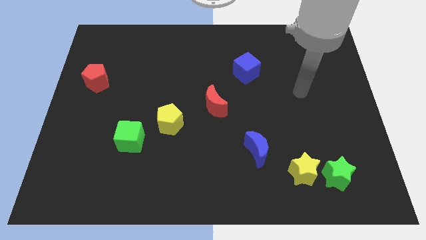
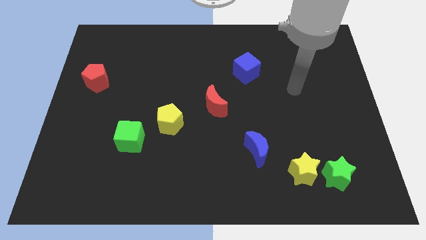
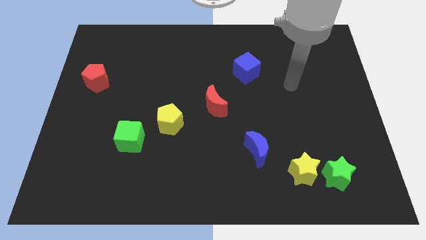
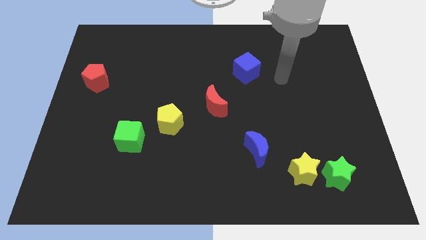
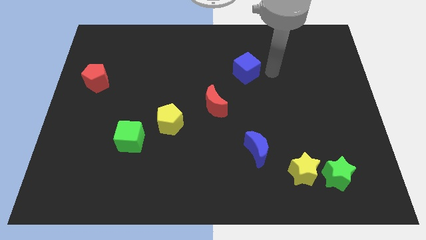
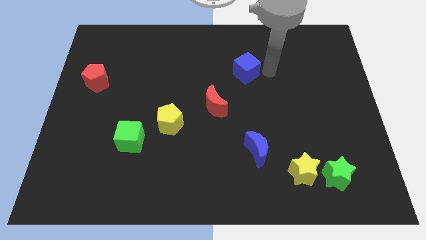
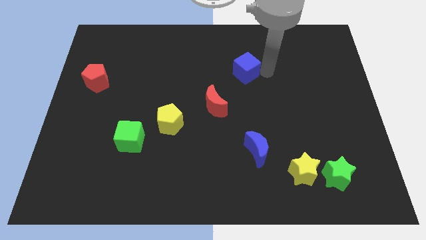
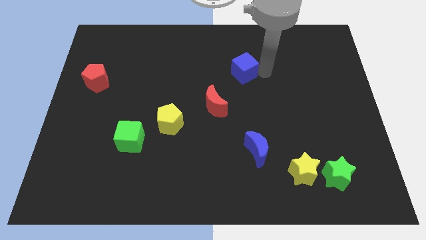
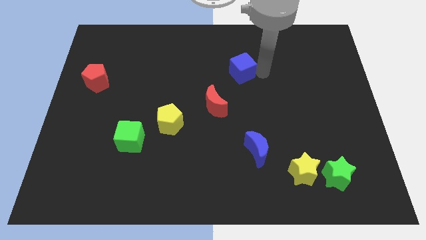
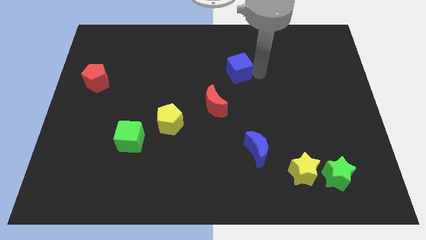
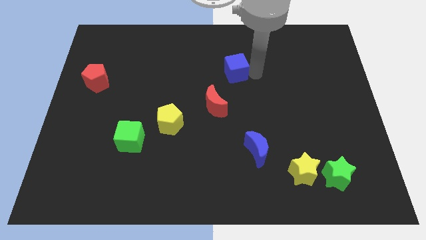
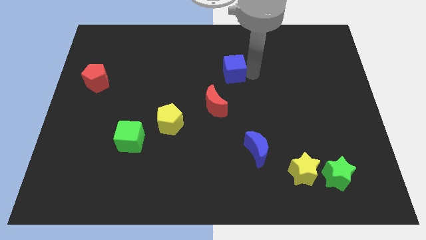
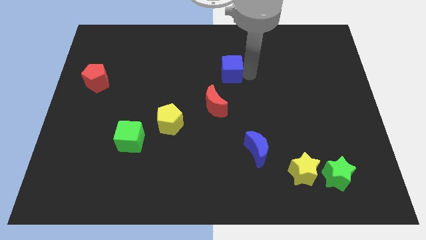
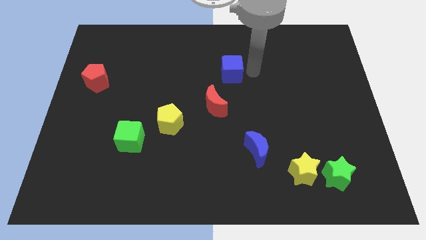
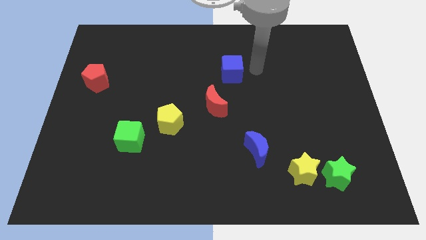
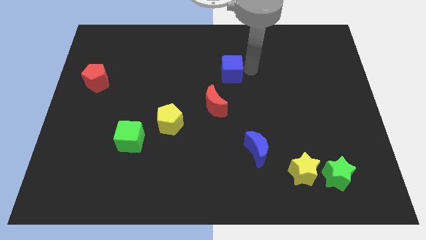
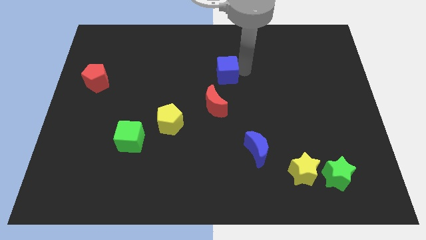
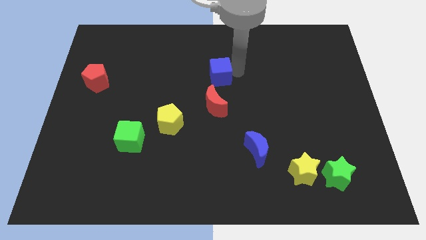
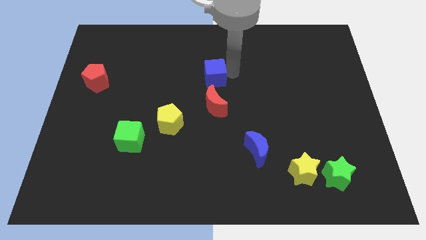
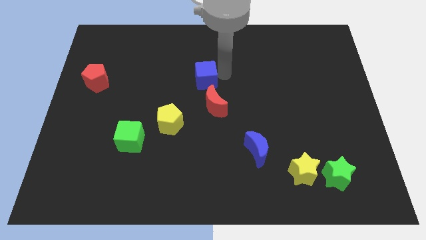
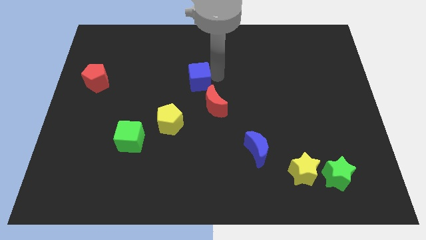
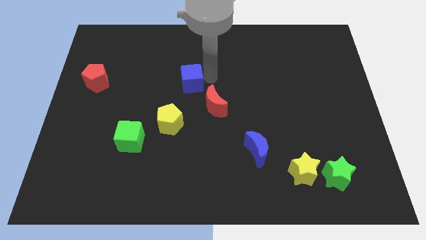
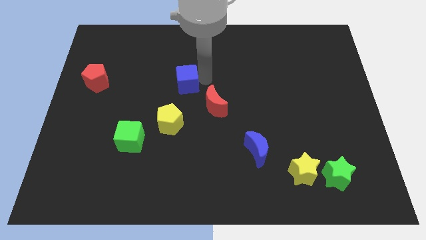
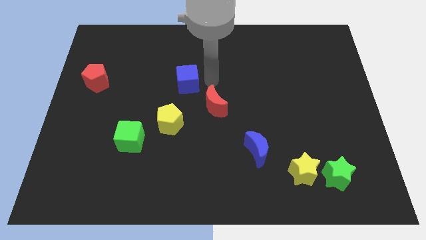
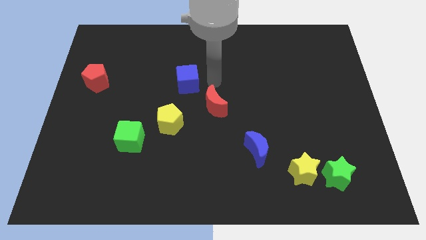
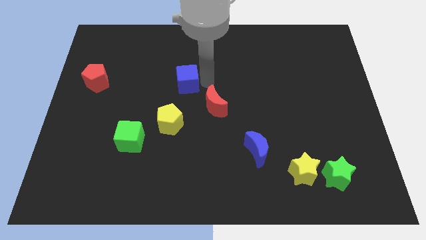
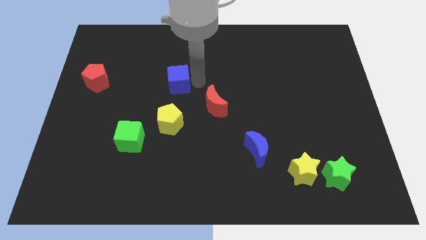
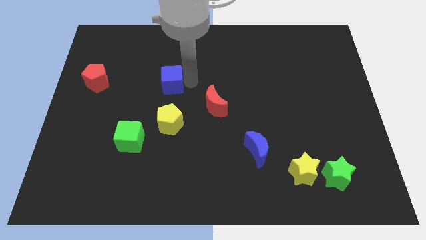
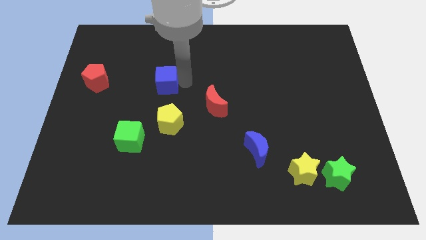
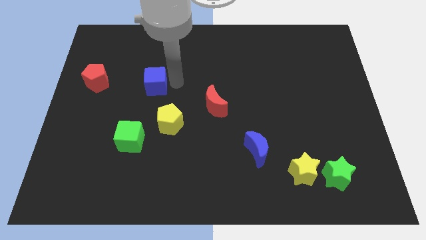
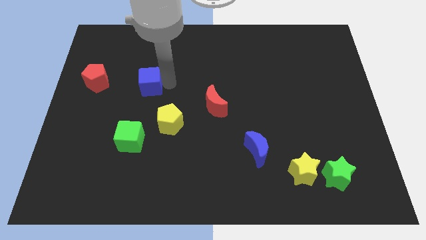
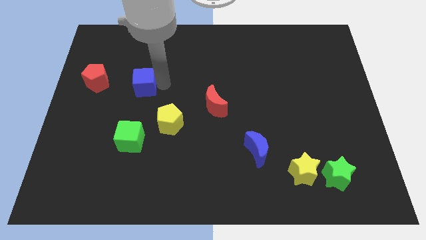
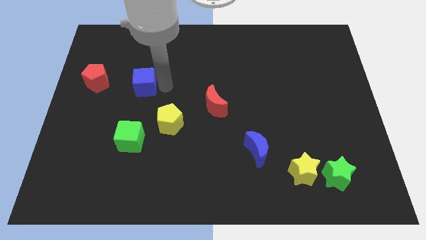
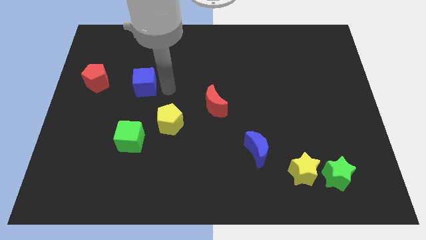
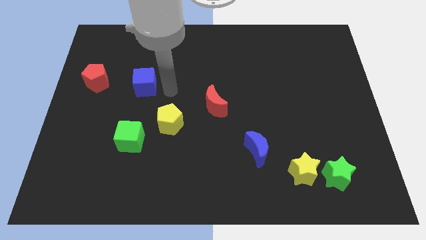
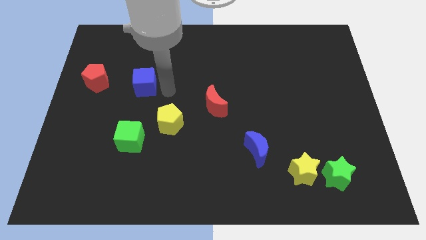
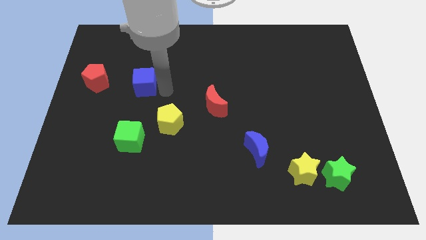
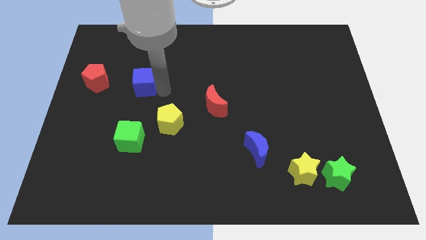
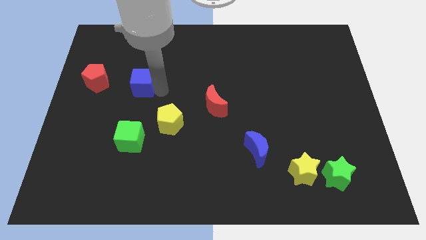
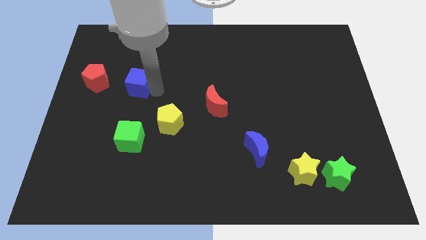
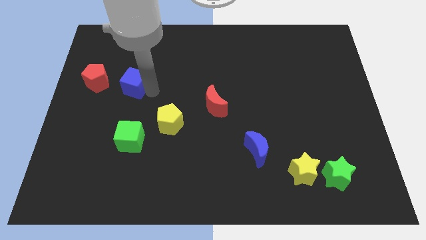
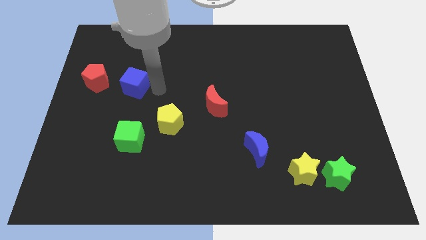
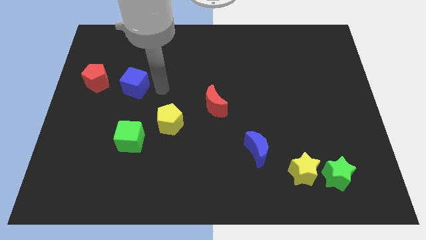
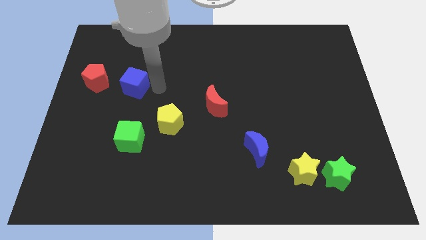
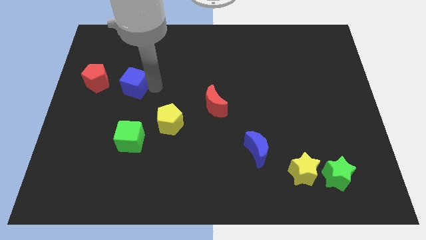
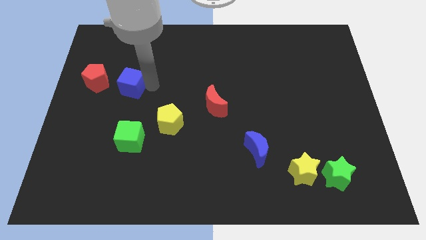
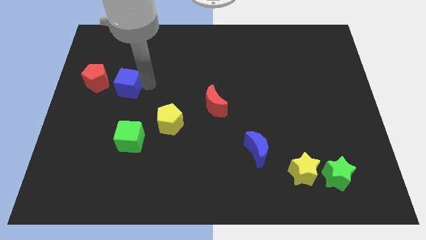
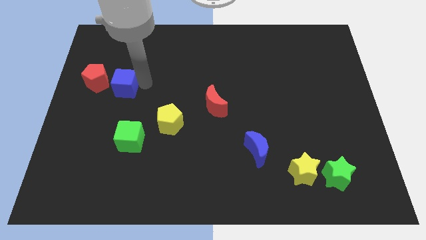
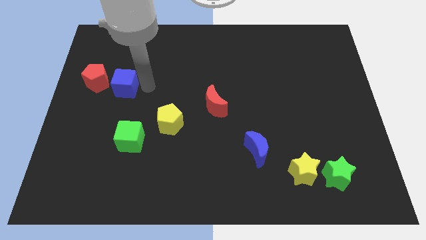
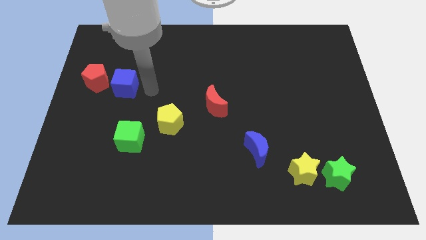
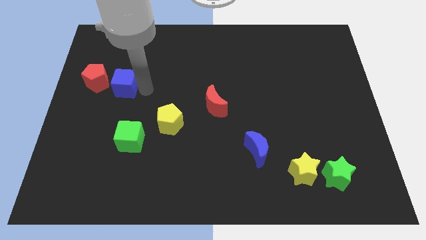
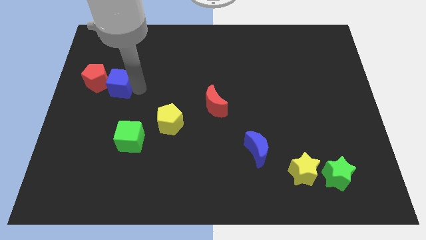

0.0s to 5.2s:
move the blue cube to the red pentagon

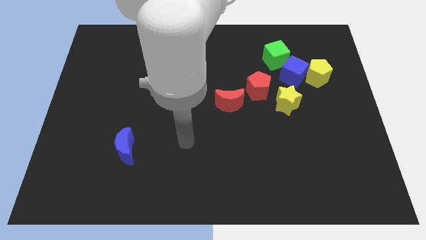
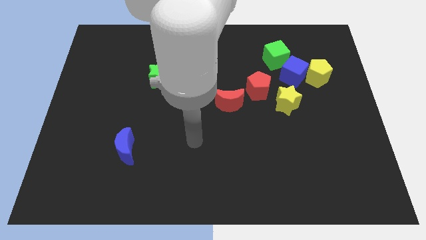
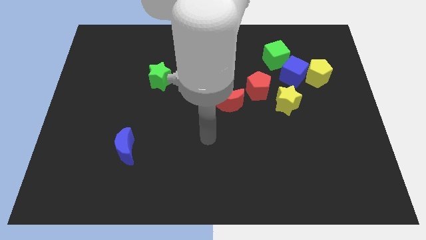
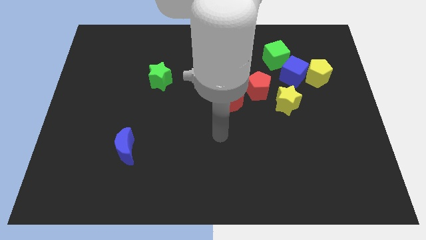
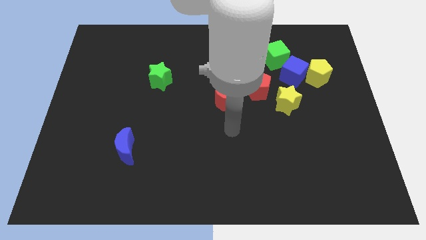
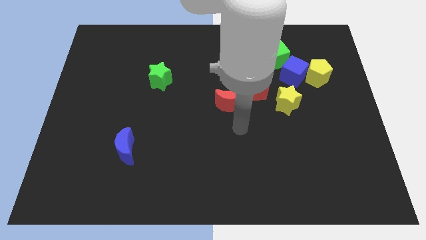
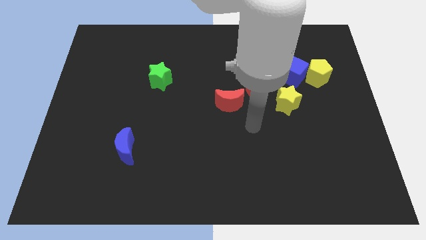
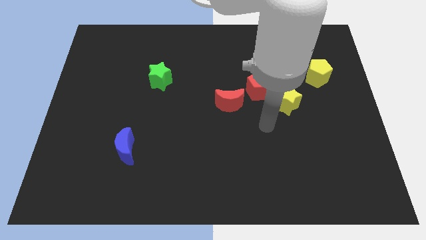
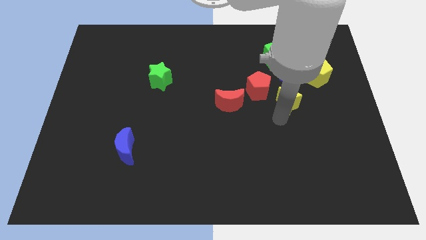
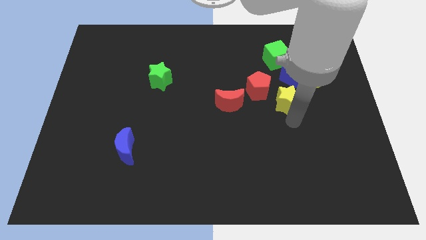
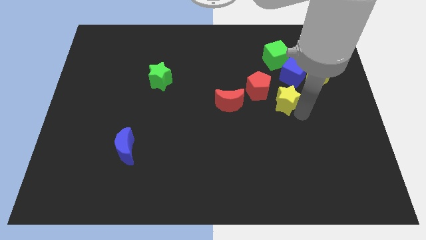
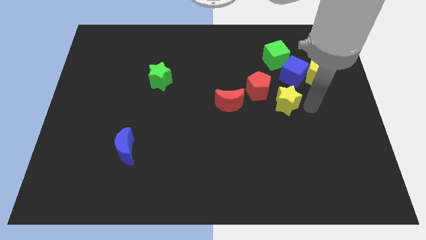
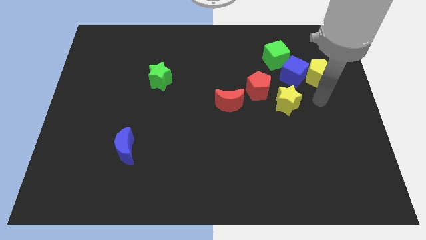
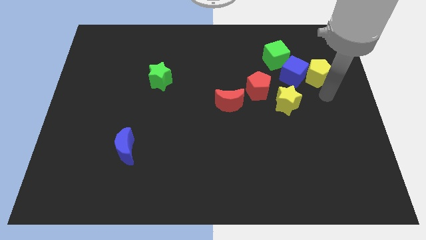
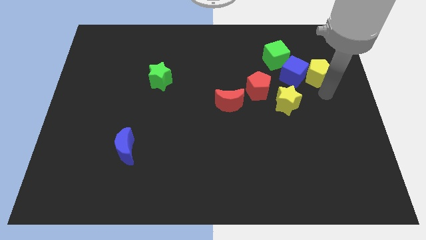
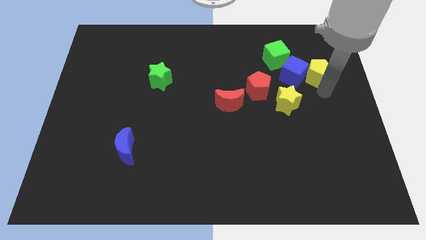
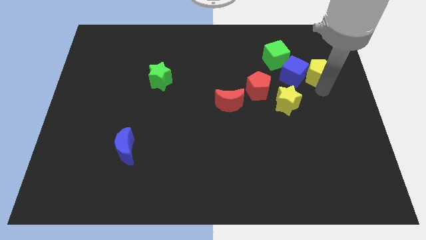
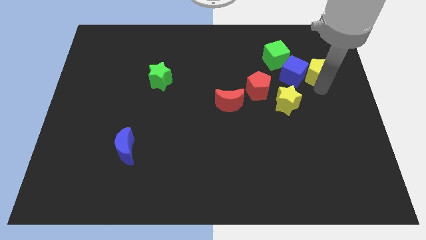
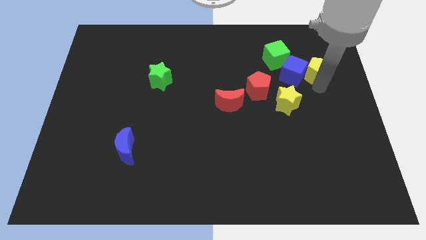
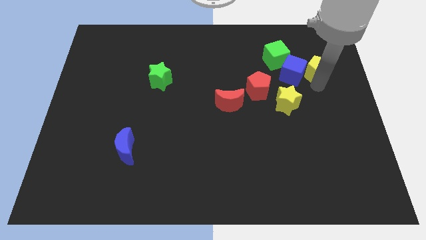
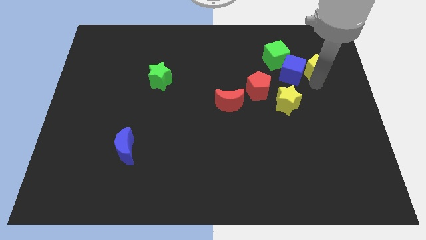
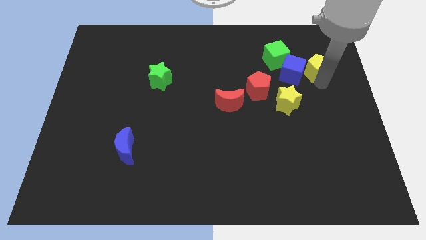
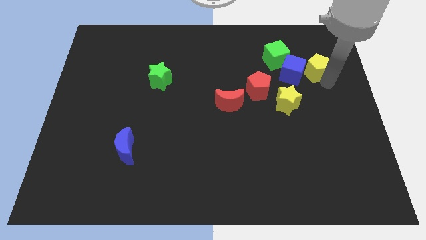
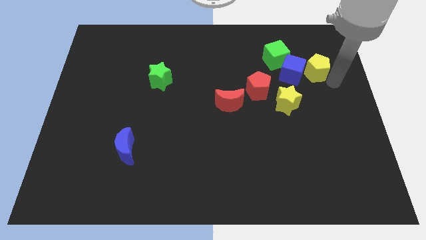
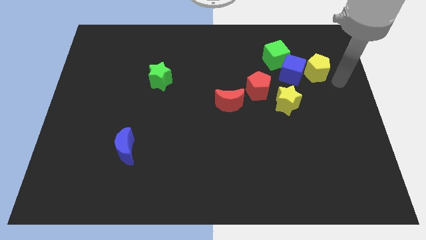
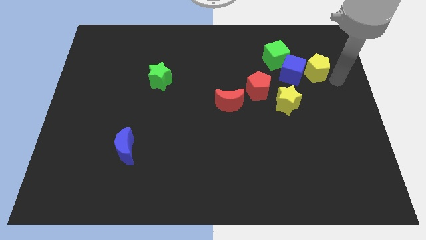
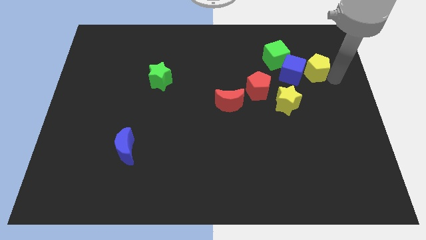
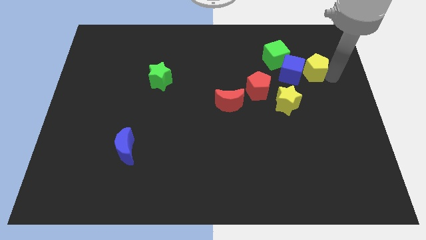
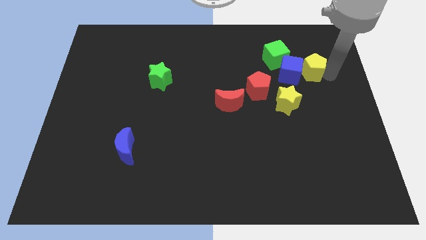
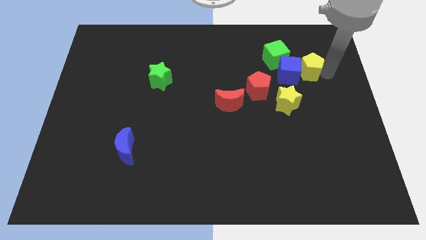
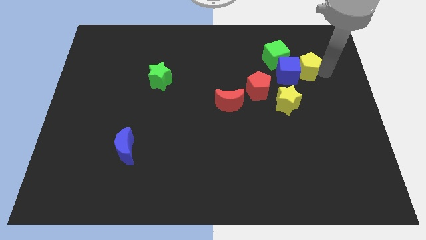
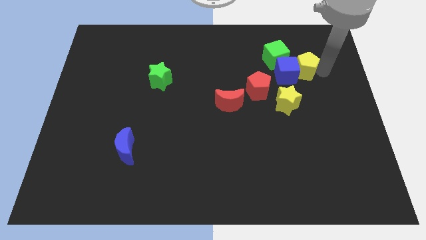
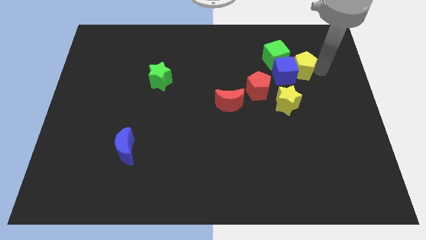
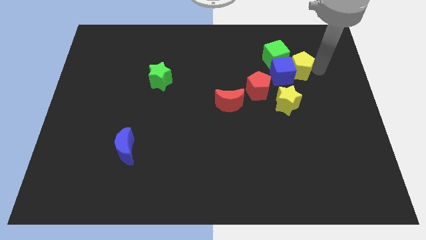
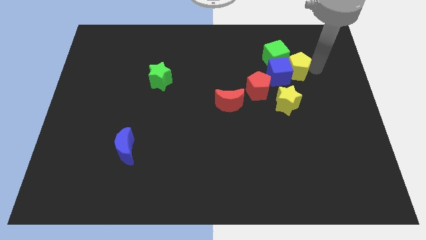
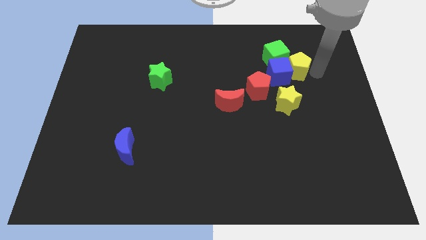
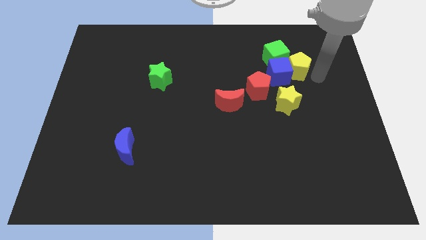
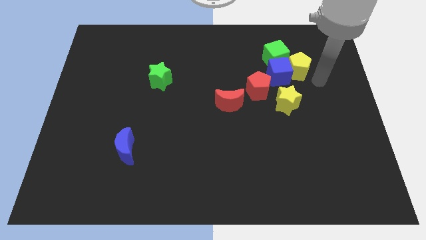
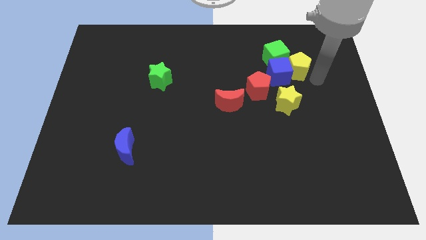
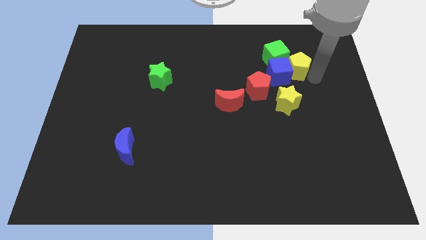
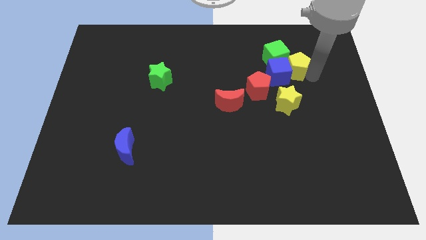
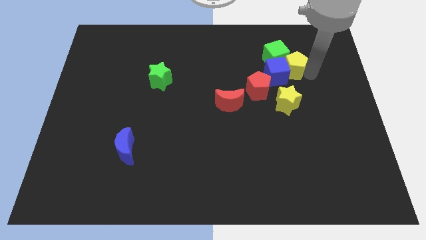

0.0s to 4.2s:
put the yellow pentagon to the green cube
